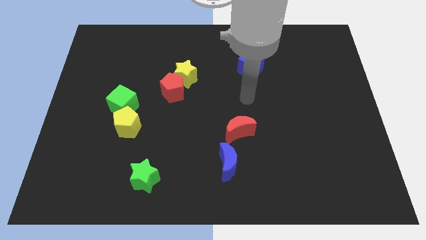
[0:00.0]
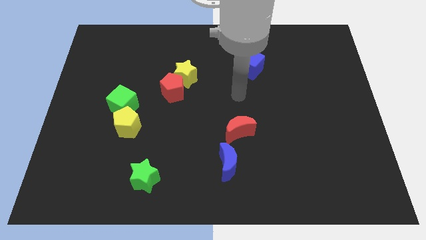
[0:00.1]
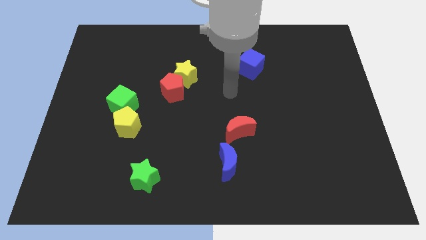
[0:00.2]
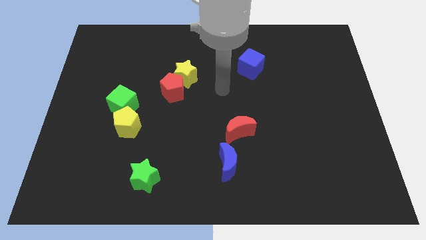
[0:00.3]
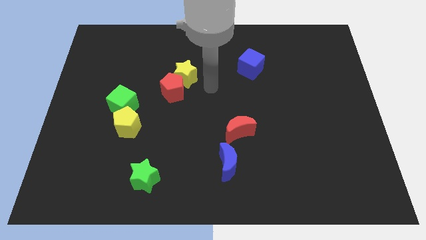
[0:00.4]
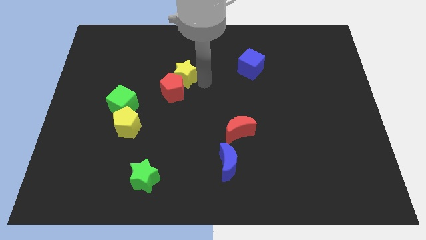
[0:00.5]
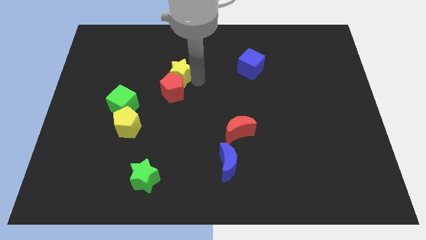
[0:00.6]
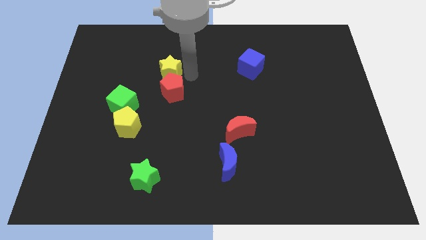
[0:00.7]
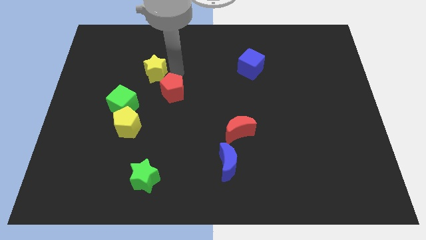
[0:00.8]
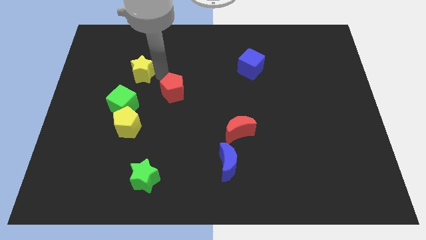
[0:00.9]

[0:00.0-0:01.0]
move the red pentagon away from the yellow star

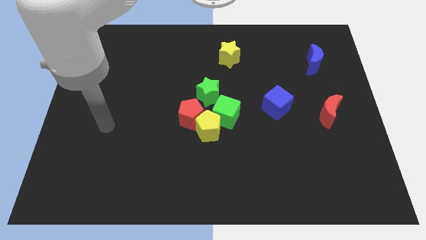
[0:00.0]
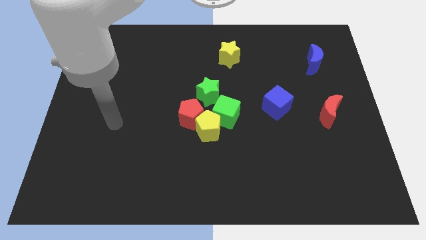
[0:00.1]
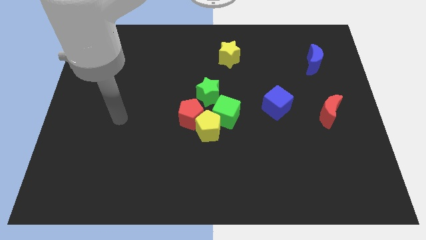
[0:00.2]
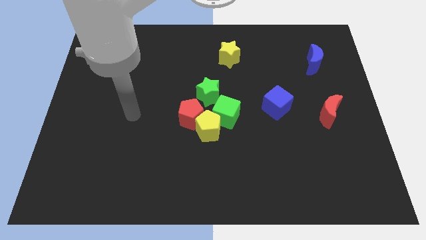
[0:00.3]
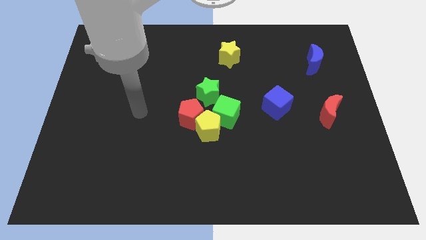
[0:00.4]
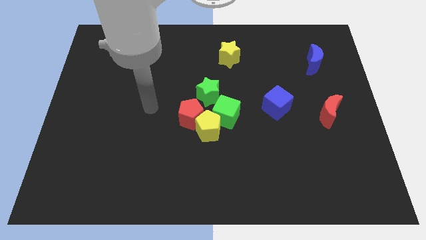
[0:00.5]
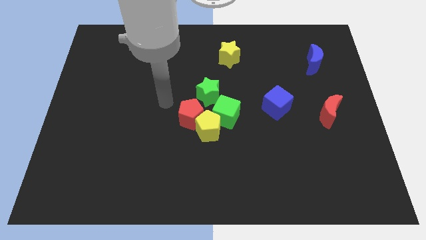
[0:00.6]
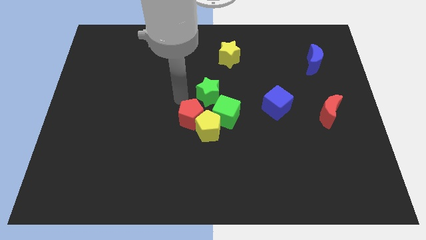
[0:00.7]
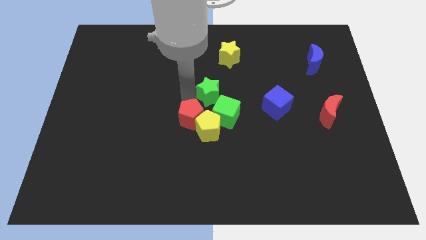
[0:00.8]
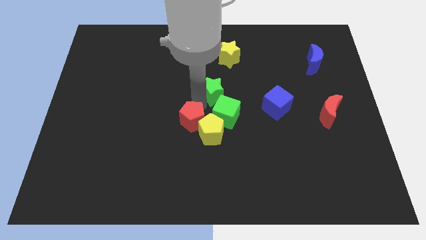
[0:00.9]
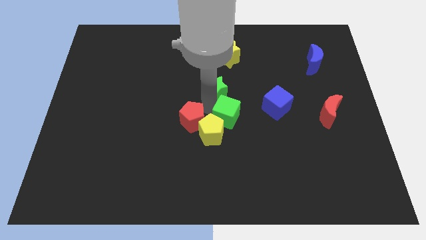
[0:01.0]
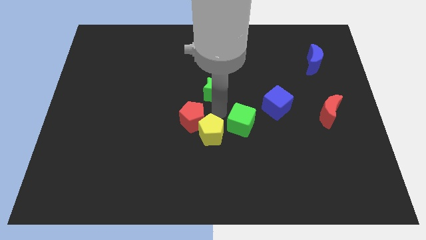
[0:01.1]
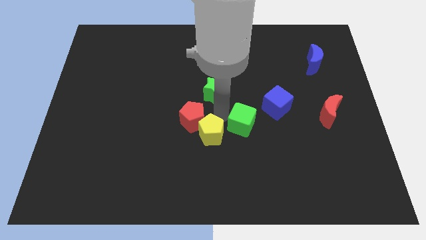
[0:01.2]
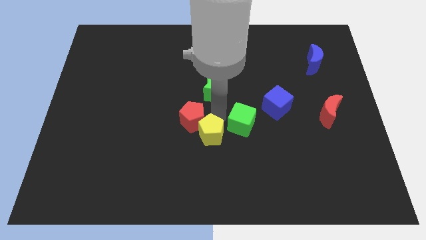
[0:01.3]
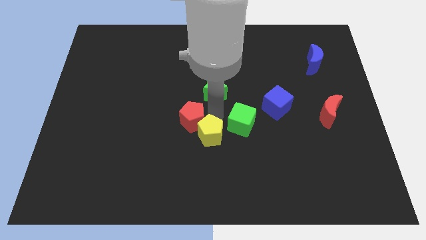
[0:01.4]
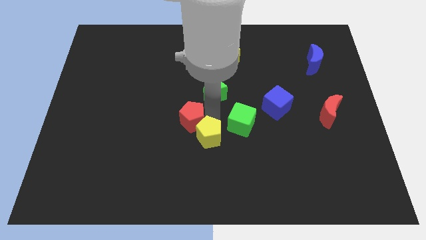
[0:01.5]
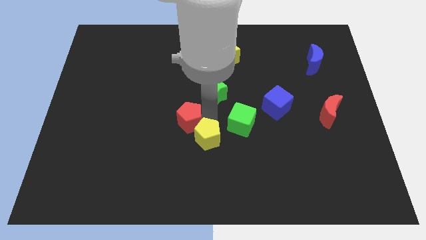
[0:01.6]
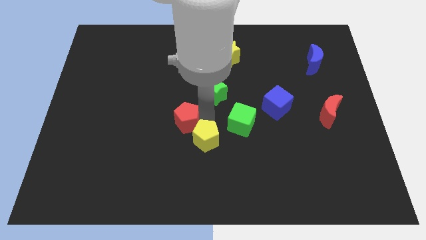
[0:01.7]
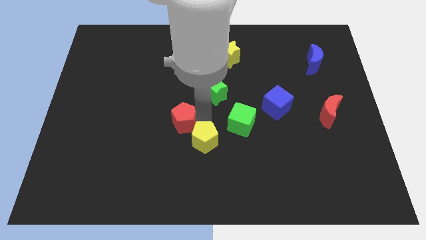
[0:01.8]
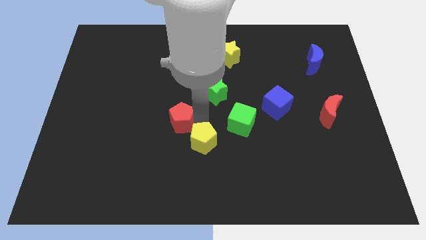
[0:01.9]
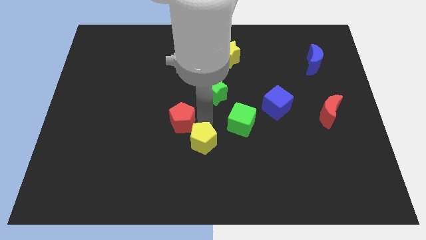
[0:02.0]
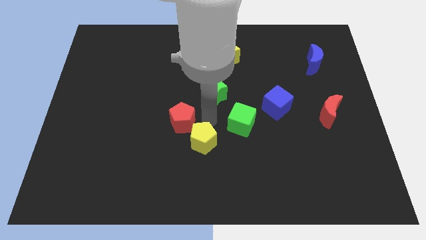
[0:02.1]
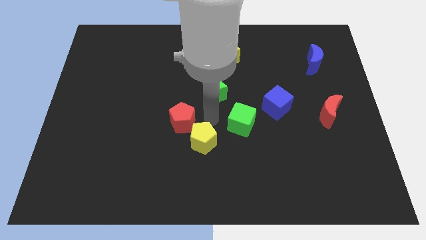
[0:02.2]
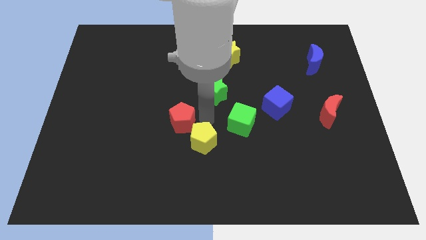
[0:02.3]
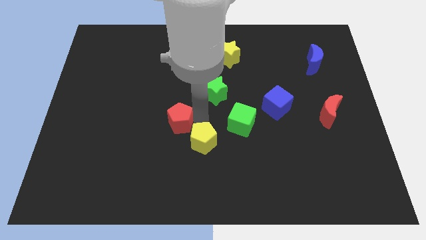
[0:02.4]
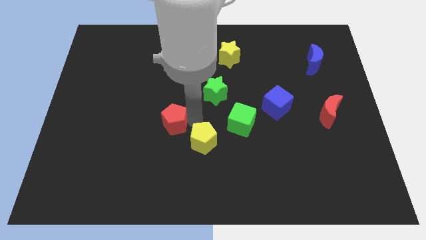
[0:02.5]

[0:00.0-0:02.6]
pull the red pentagon apart from the yellow pentagon, green cube, and green star

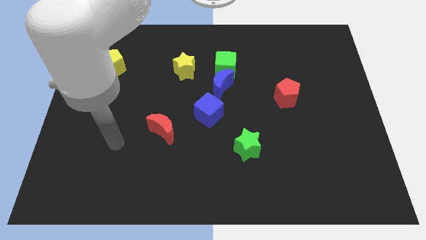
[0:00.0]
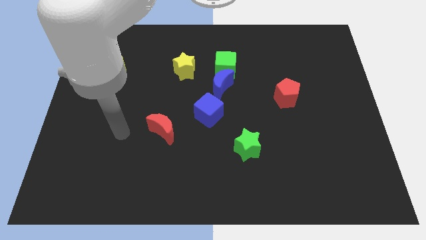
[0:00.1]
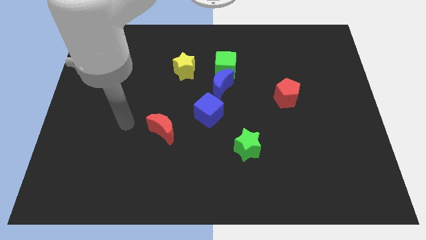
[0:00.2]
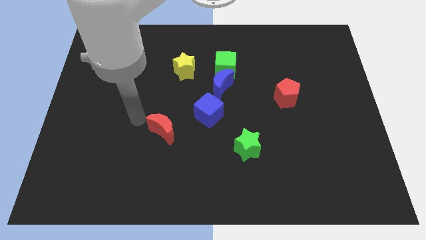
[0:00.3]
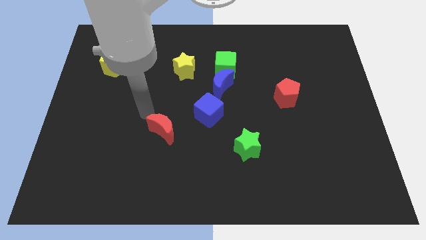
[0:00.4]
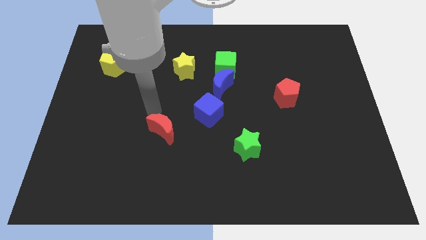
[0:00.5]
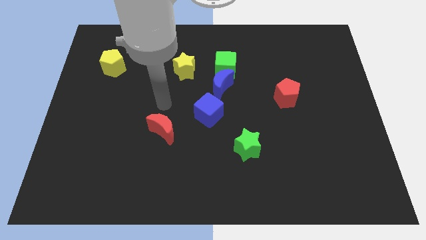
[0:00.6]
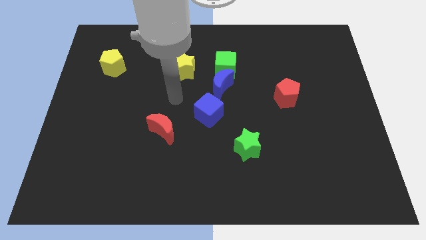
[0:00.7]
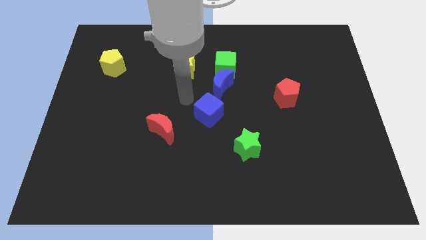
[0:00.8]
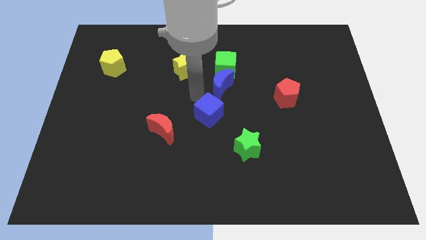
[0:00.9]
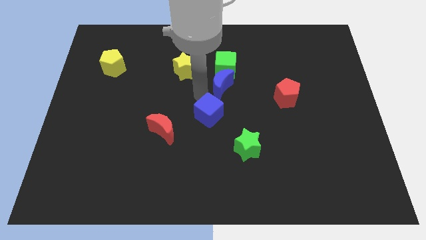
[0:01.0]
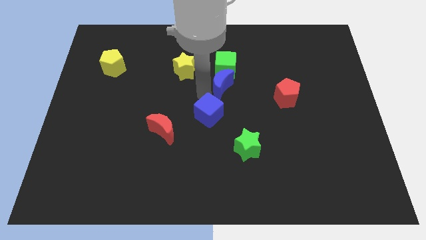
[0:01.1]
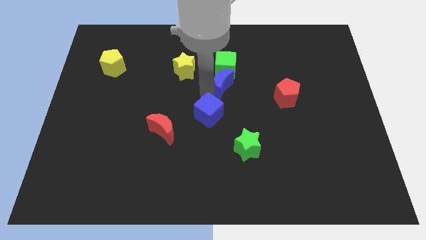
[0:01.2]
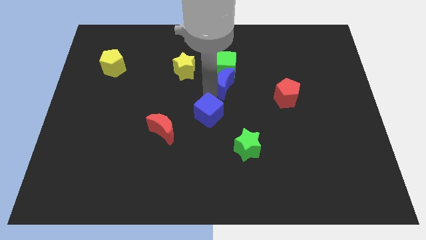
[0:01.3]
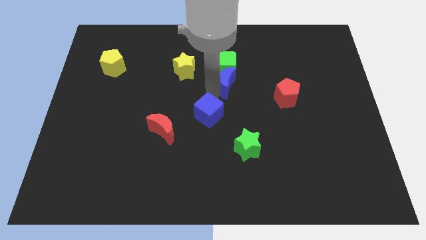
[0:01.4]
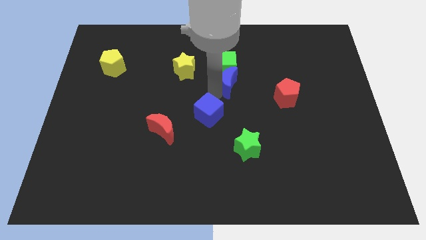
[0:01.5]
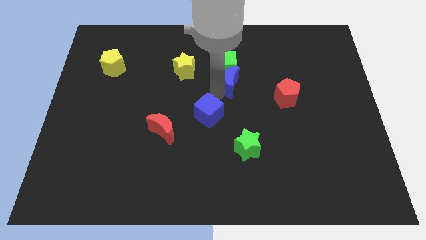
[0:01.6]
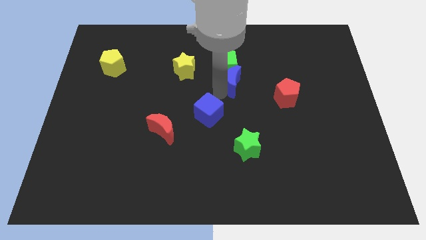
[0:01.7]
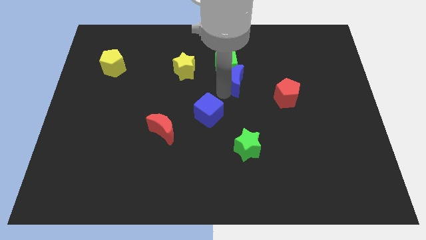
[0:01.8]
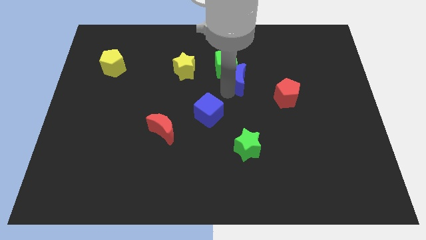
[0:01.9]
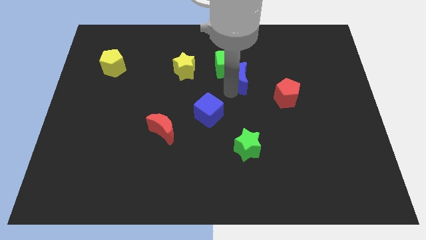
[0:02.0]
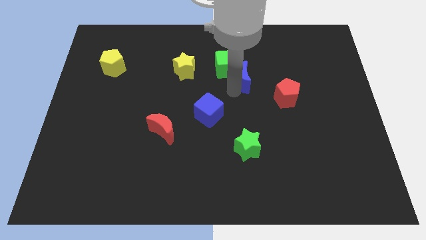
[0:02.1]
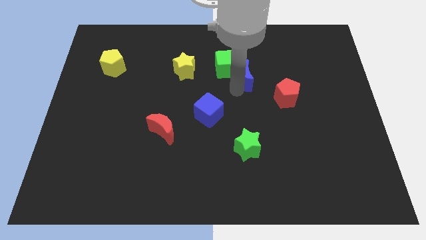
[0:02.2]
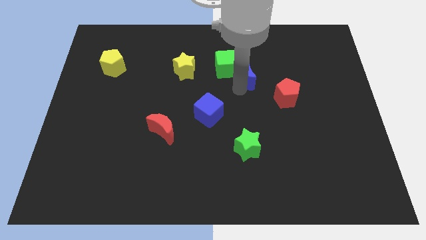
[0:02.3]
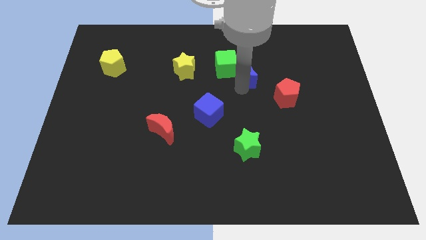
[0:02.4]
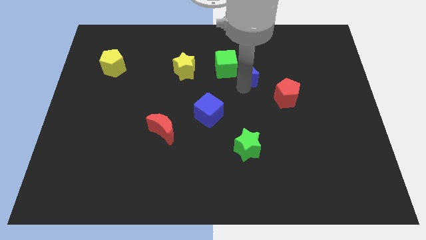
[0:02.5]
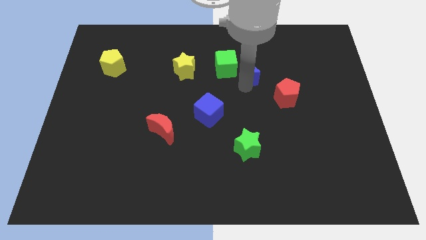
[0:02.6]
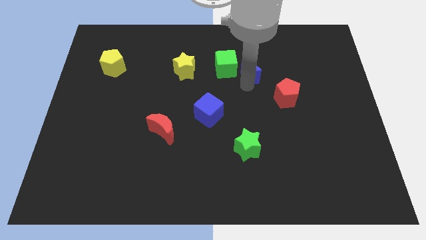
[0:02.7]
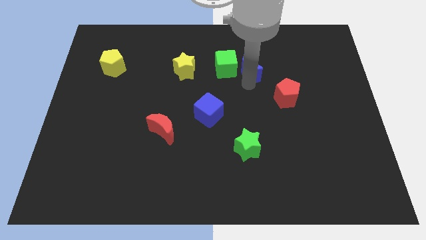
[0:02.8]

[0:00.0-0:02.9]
pull the blue moon apart from the green cube and blue cube

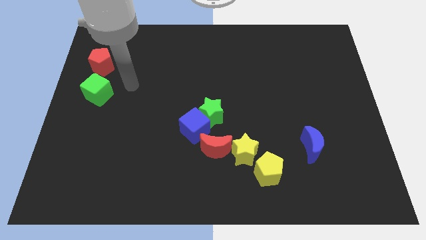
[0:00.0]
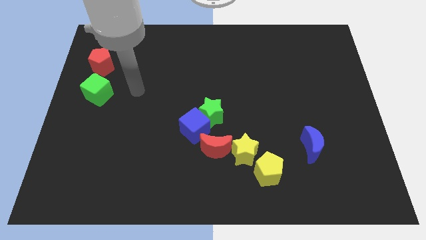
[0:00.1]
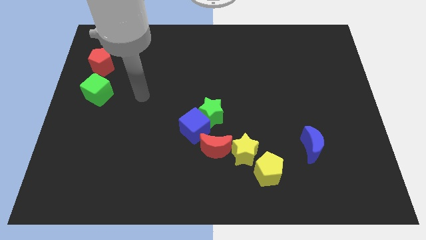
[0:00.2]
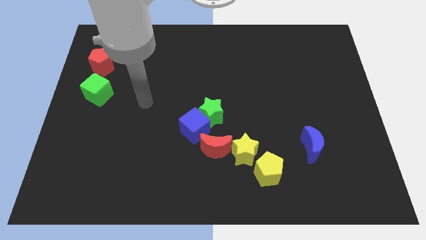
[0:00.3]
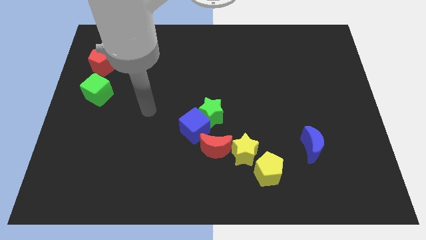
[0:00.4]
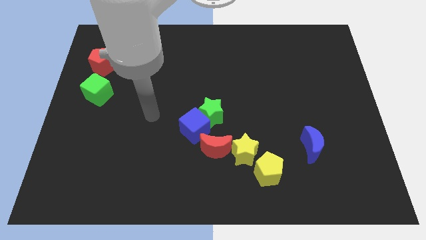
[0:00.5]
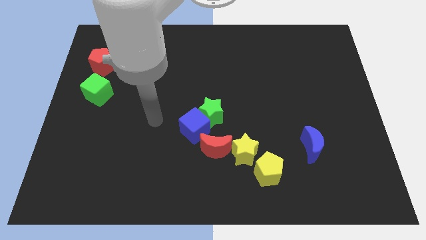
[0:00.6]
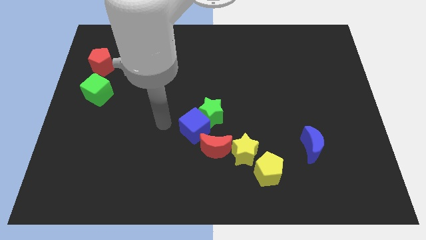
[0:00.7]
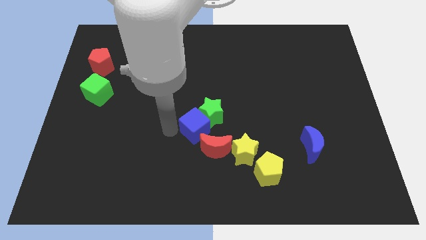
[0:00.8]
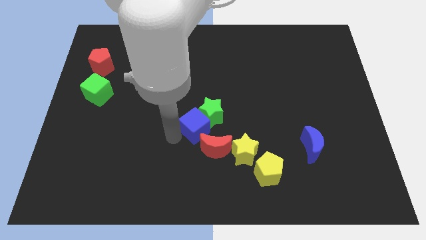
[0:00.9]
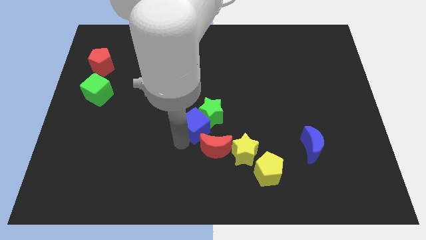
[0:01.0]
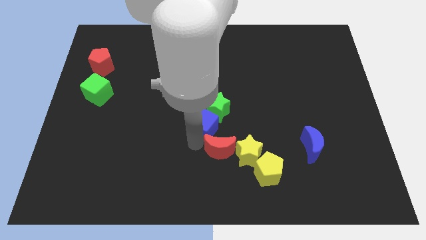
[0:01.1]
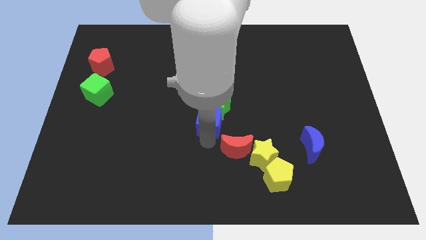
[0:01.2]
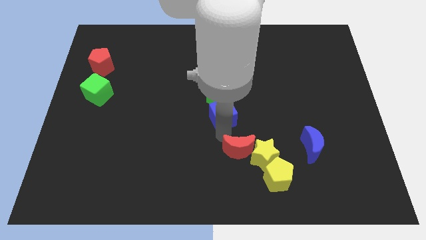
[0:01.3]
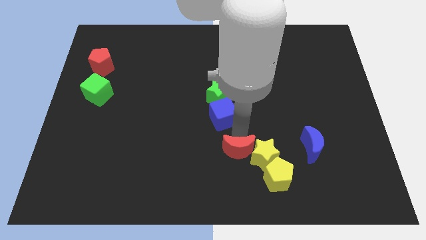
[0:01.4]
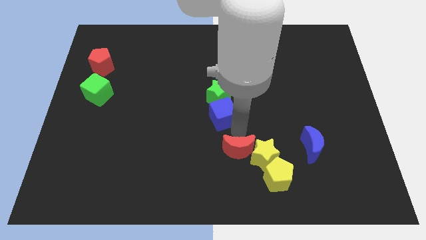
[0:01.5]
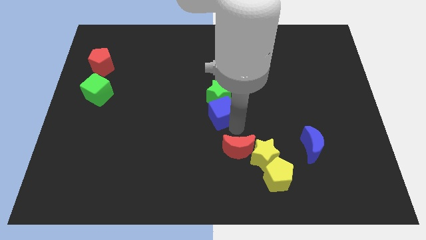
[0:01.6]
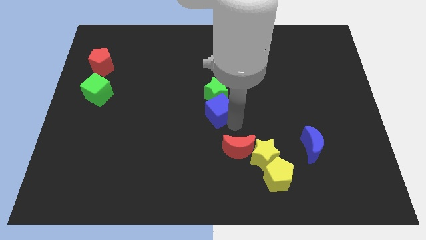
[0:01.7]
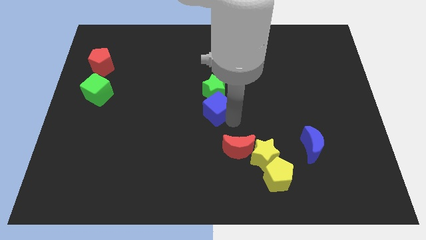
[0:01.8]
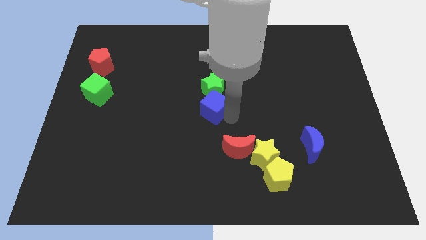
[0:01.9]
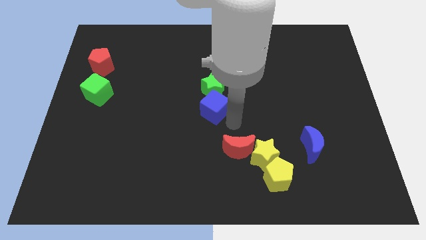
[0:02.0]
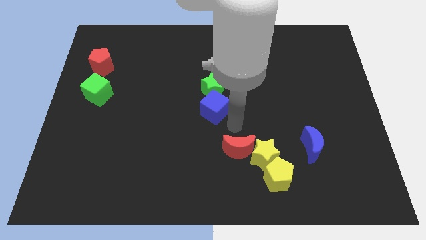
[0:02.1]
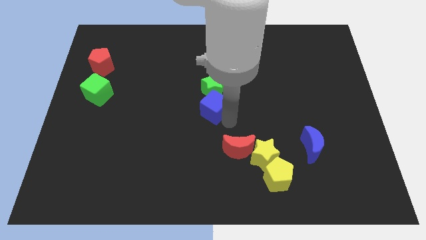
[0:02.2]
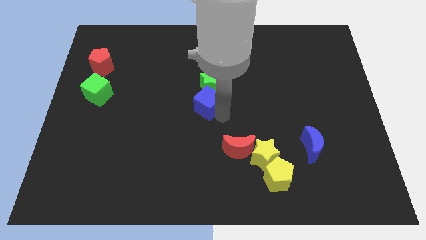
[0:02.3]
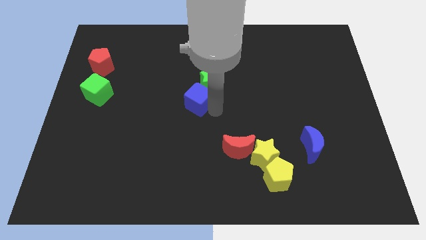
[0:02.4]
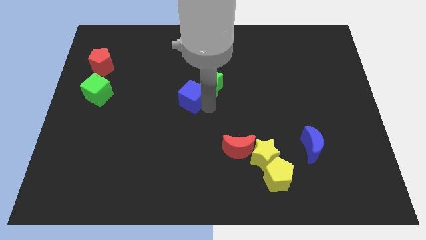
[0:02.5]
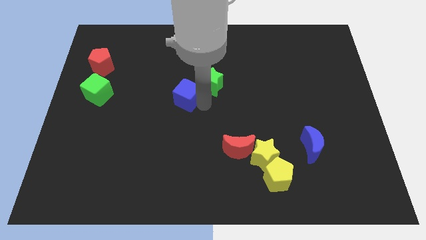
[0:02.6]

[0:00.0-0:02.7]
separate the blue cube from the green star and red moon
